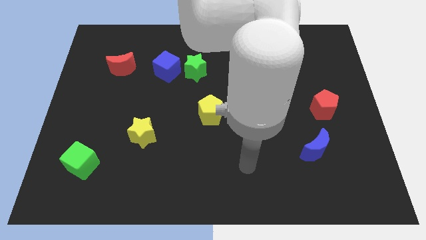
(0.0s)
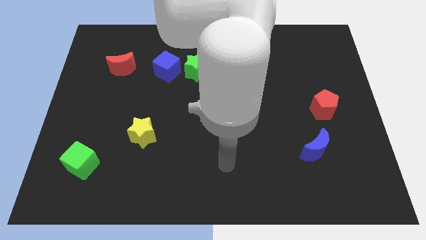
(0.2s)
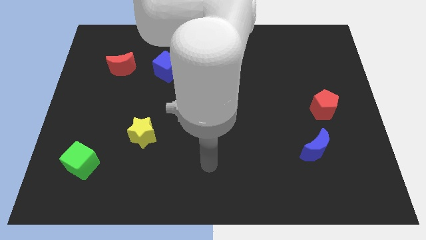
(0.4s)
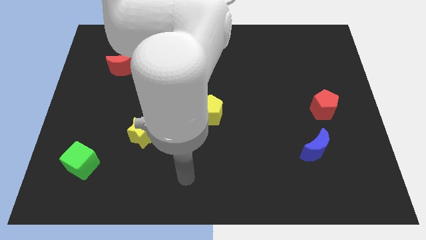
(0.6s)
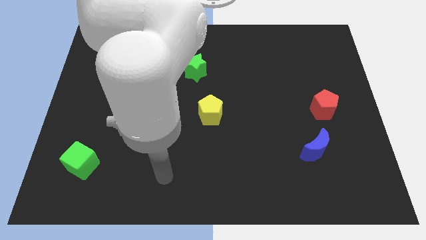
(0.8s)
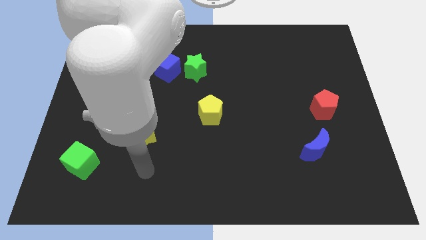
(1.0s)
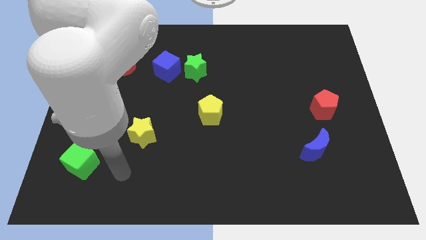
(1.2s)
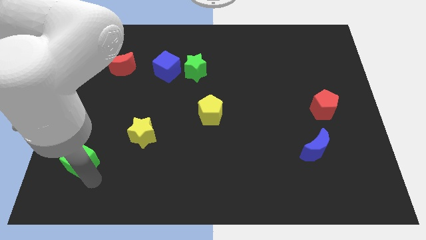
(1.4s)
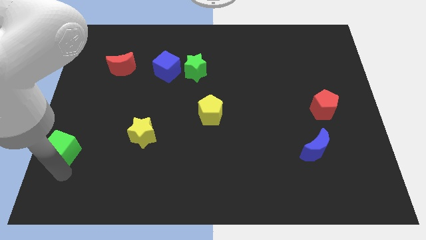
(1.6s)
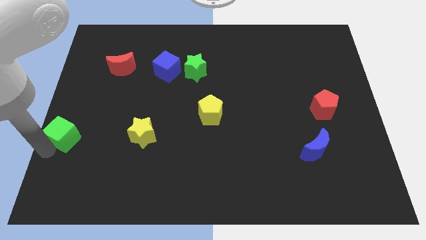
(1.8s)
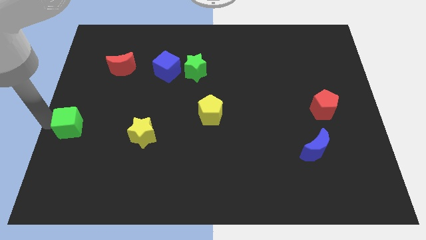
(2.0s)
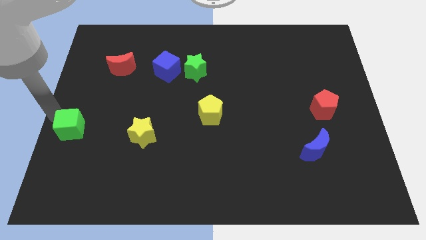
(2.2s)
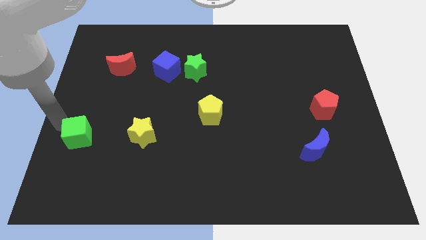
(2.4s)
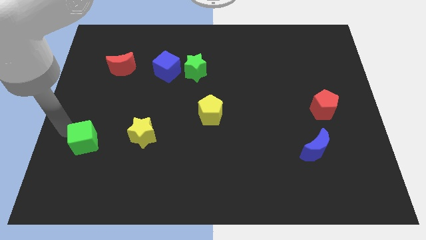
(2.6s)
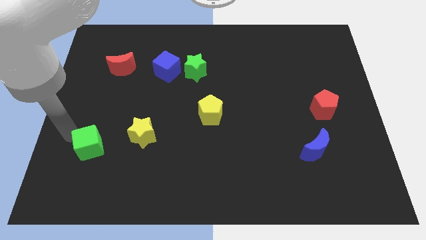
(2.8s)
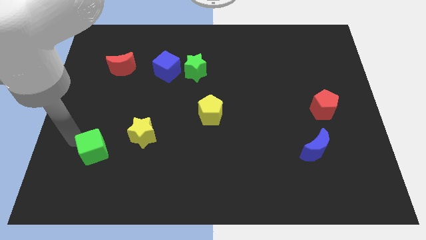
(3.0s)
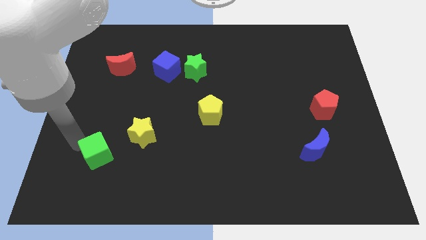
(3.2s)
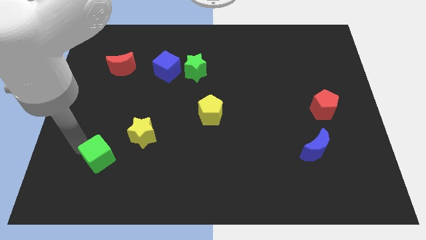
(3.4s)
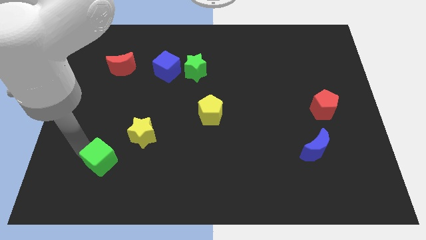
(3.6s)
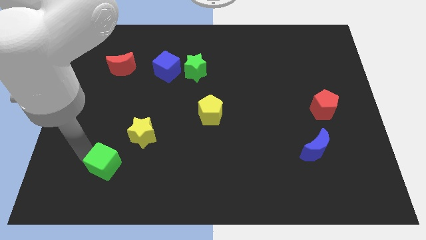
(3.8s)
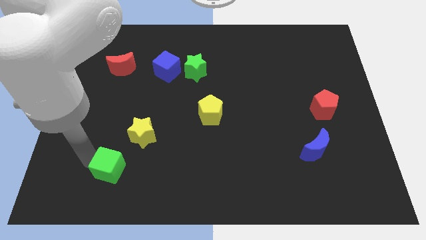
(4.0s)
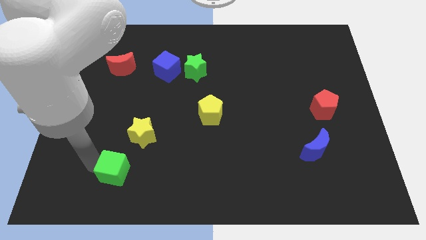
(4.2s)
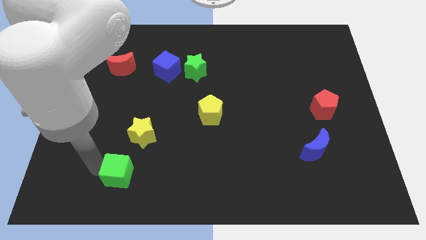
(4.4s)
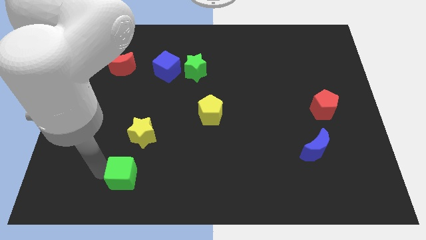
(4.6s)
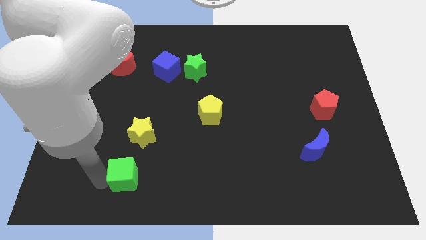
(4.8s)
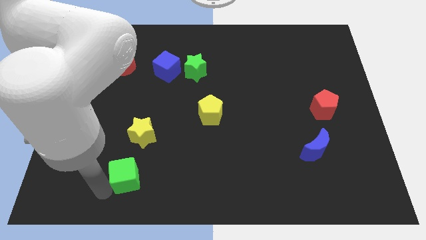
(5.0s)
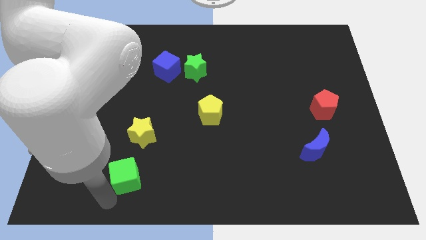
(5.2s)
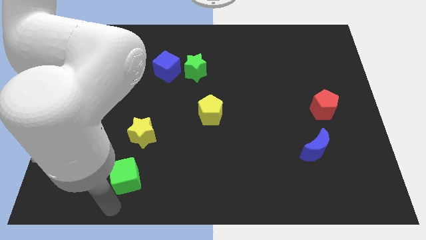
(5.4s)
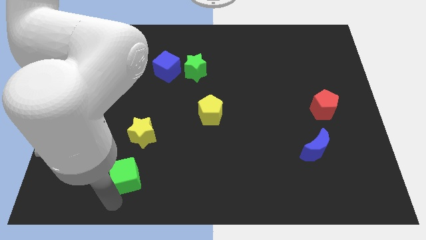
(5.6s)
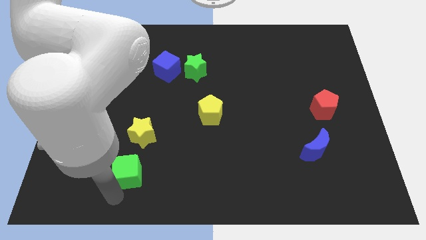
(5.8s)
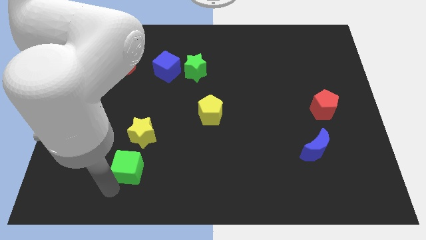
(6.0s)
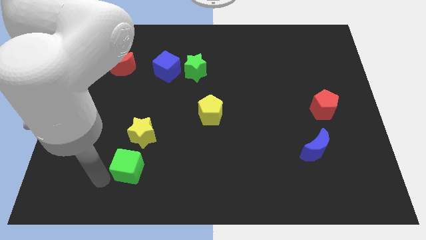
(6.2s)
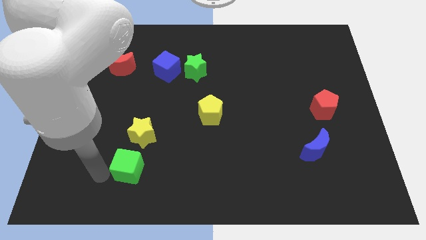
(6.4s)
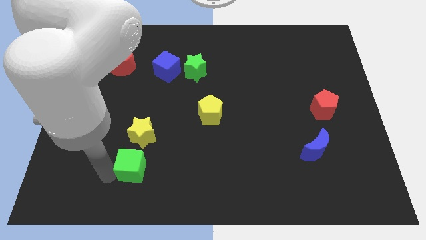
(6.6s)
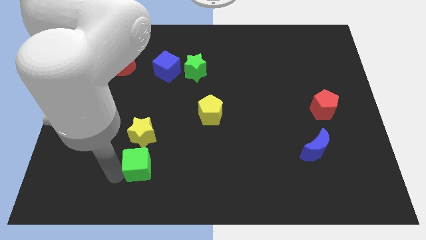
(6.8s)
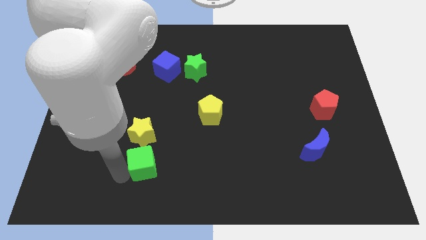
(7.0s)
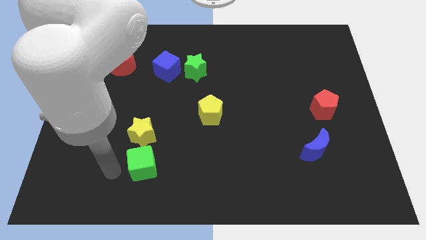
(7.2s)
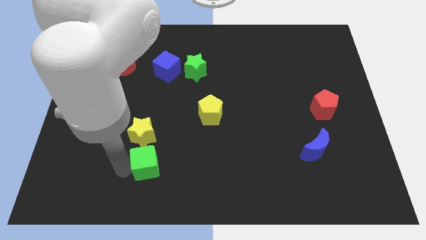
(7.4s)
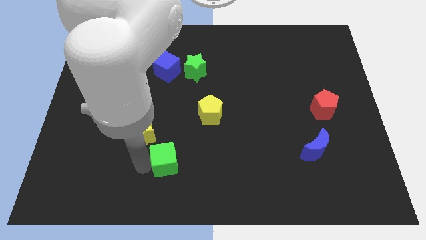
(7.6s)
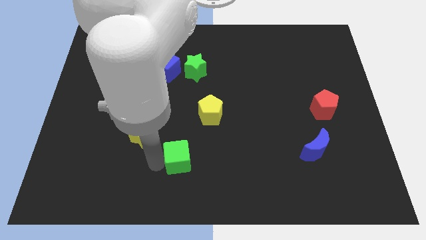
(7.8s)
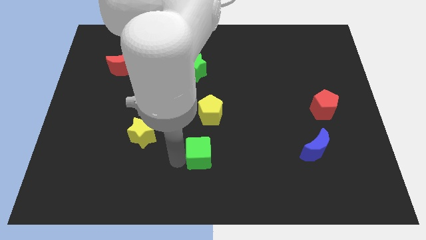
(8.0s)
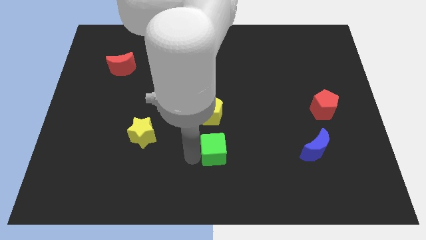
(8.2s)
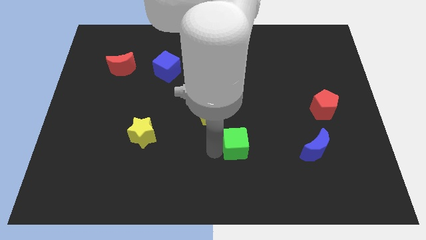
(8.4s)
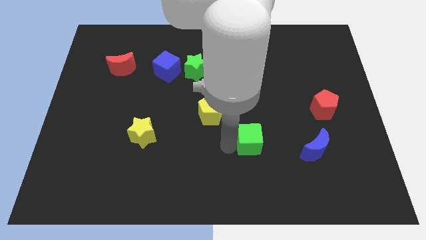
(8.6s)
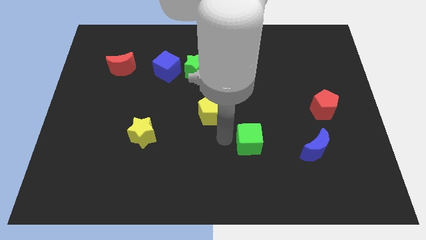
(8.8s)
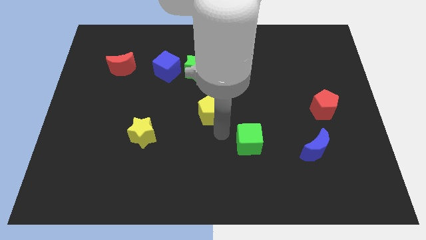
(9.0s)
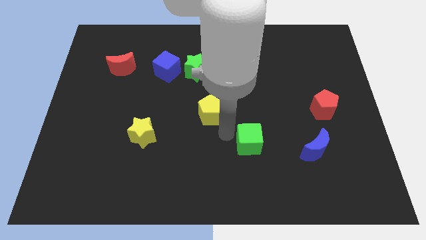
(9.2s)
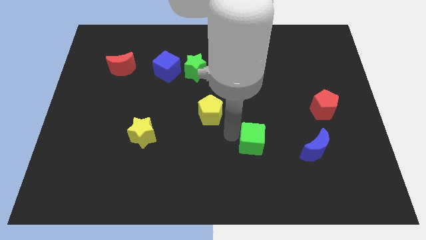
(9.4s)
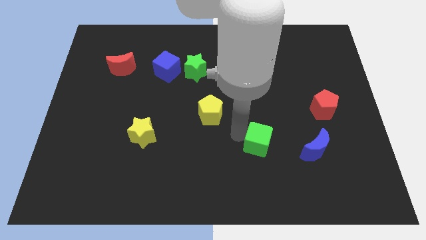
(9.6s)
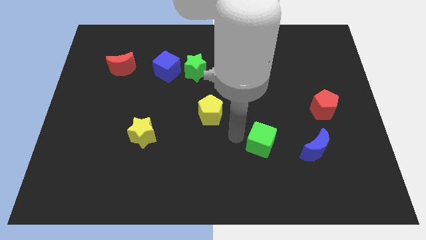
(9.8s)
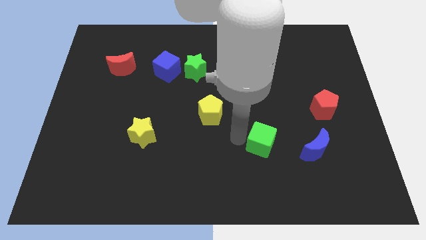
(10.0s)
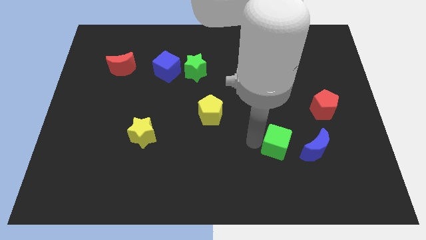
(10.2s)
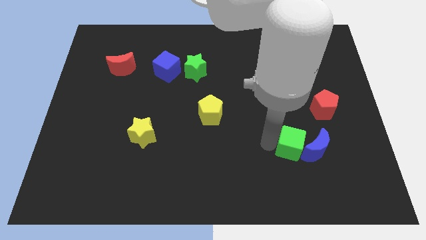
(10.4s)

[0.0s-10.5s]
slide the green cube close to the blue moon

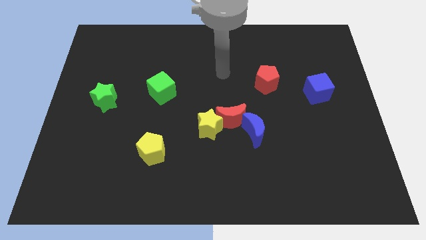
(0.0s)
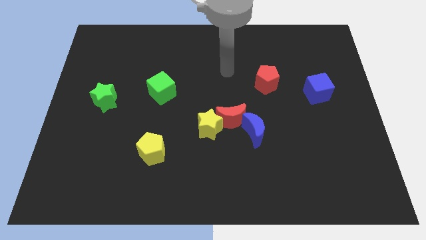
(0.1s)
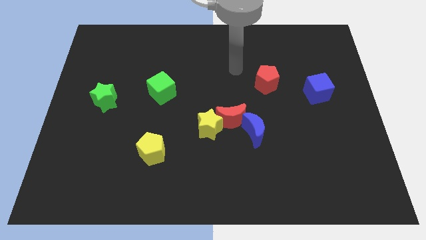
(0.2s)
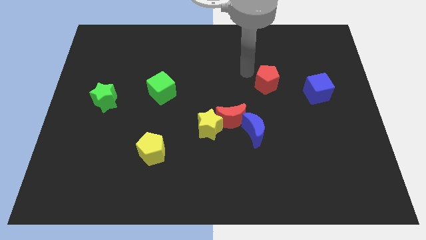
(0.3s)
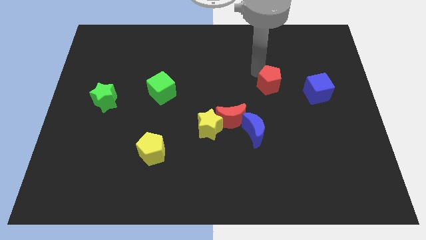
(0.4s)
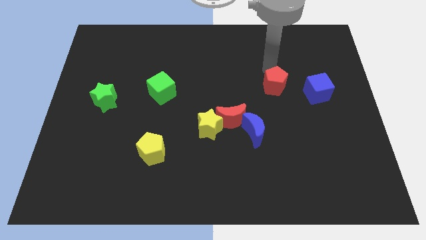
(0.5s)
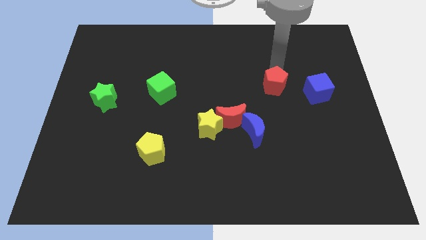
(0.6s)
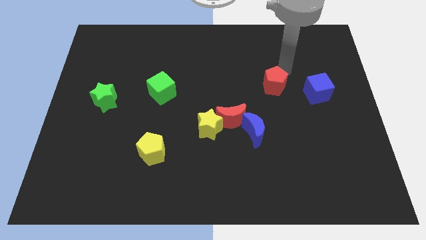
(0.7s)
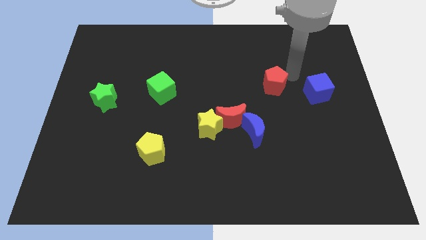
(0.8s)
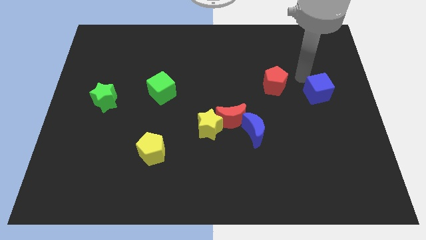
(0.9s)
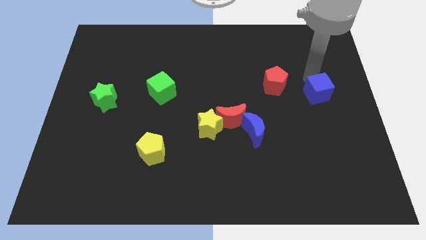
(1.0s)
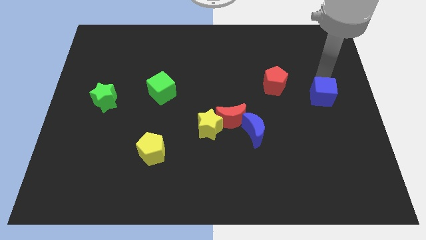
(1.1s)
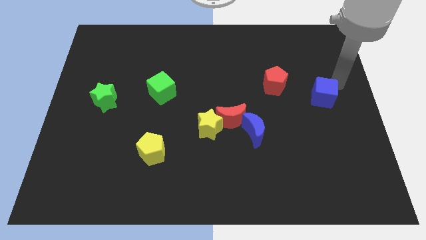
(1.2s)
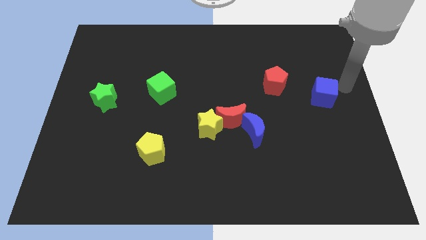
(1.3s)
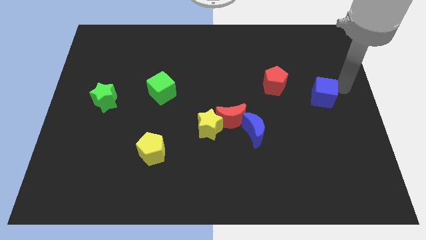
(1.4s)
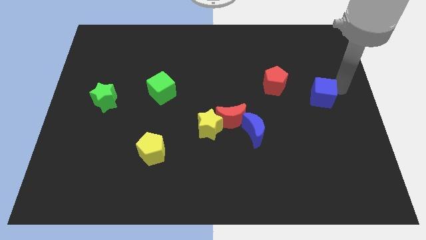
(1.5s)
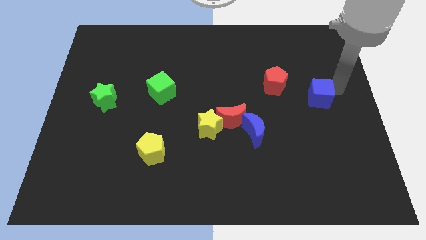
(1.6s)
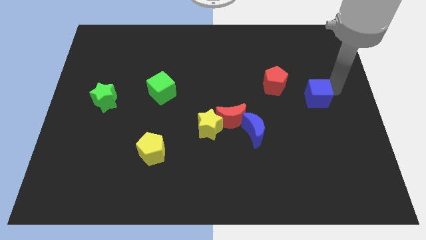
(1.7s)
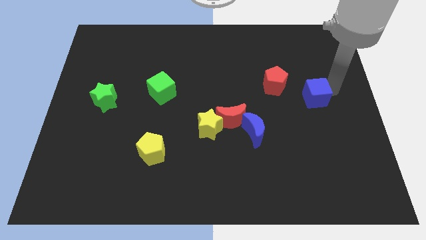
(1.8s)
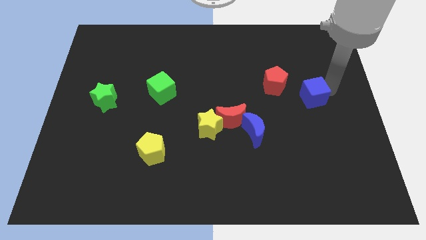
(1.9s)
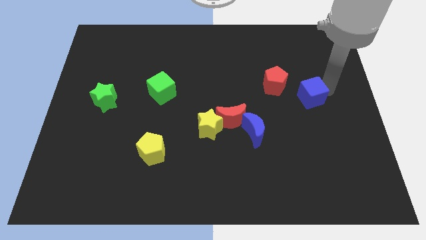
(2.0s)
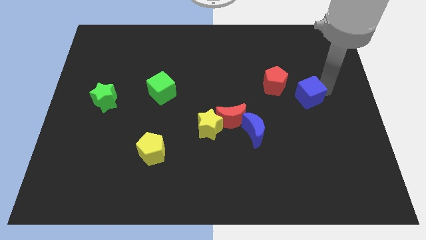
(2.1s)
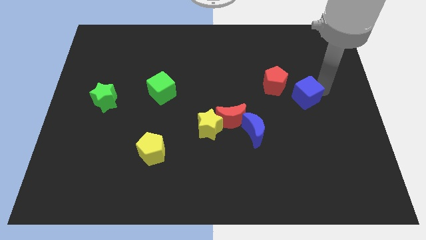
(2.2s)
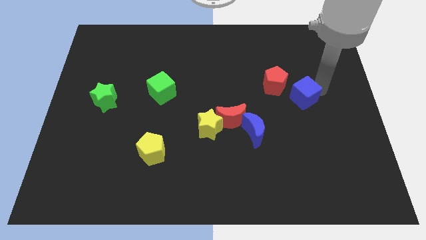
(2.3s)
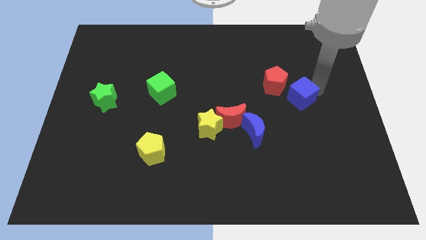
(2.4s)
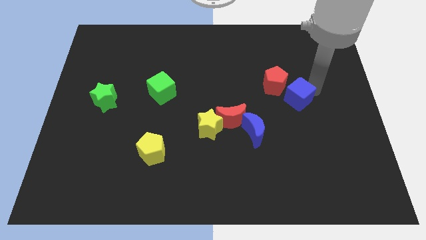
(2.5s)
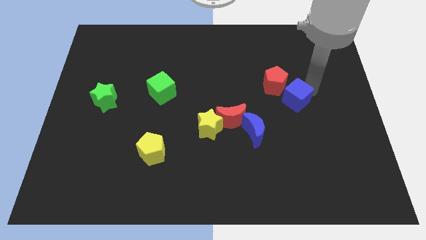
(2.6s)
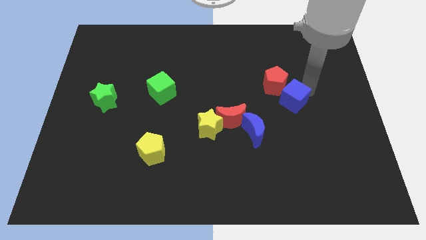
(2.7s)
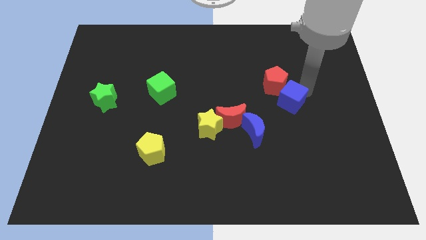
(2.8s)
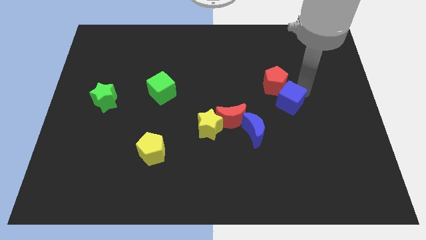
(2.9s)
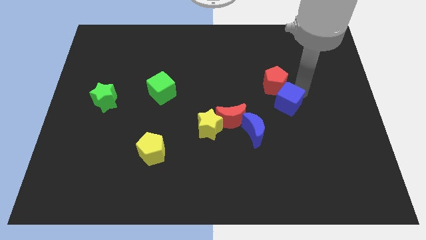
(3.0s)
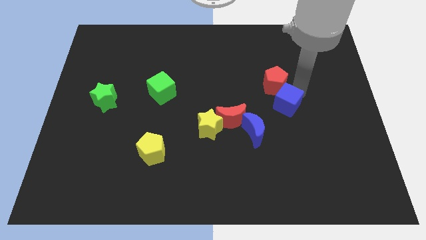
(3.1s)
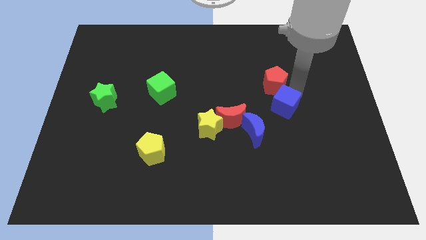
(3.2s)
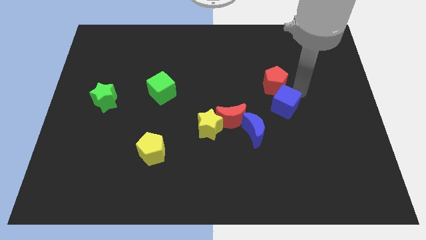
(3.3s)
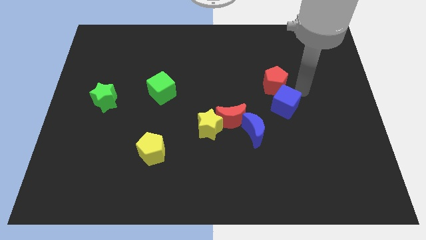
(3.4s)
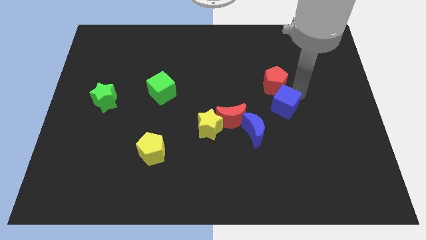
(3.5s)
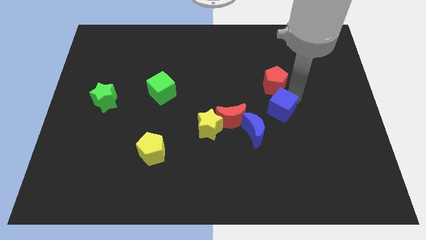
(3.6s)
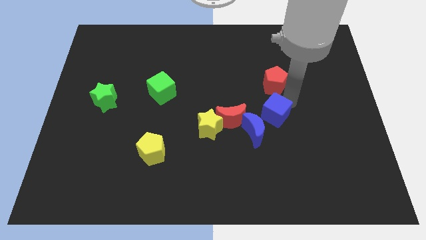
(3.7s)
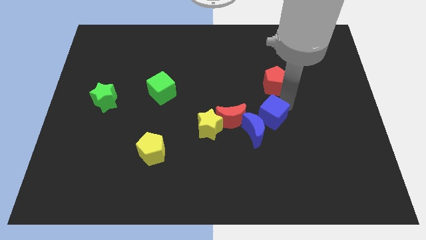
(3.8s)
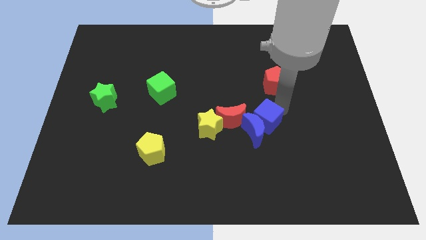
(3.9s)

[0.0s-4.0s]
put the blue cube close to the blue moon
